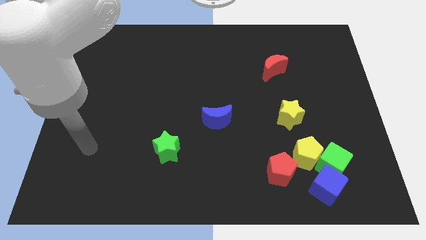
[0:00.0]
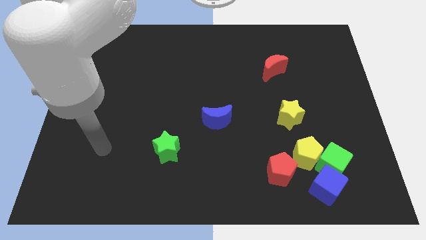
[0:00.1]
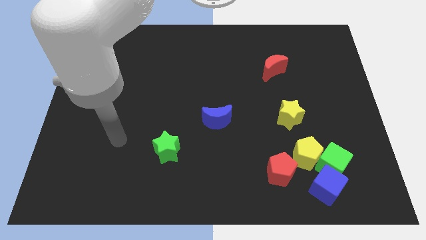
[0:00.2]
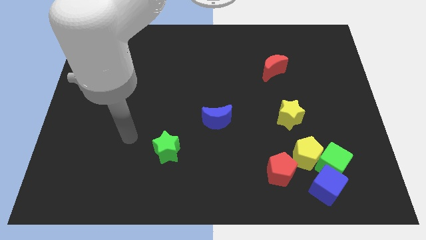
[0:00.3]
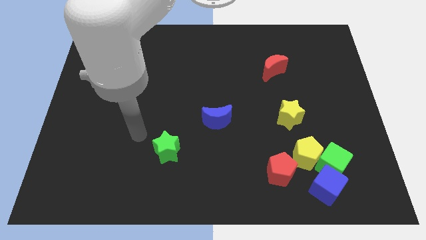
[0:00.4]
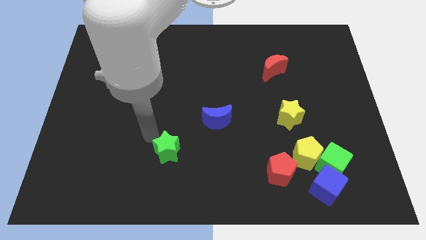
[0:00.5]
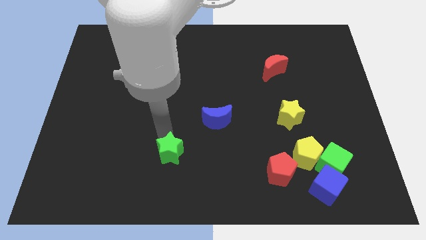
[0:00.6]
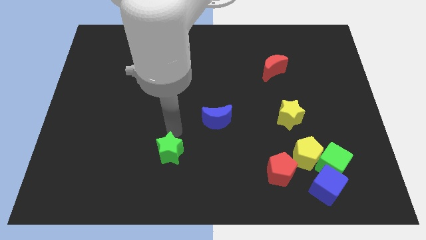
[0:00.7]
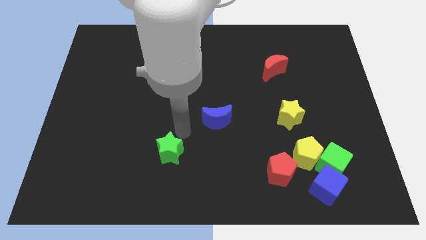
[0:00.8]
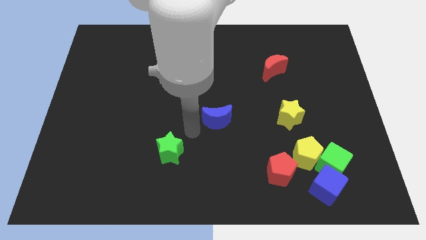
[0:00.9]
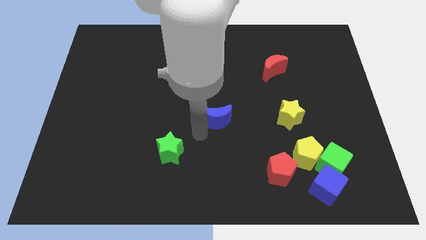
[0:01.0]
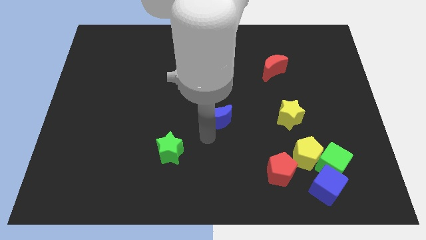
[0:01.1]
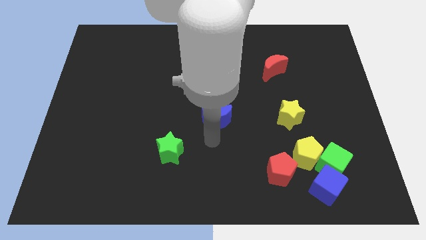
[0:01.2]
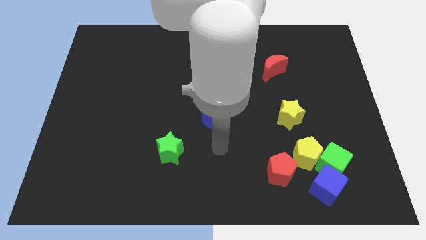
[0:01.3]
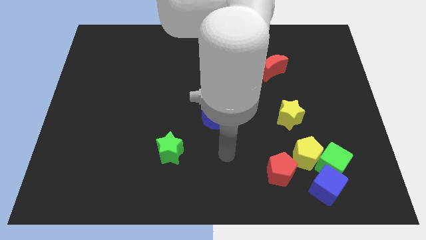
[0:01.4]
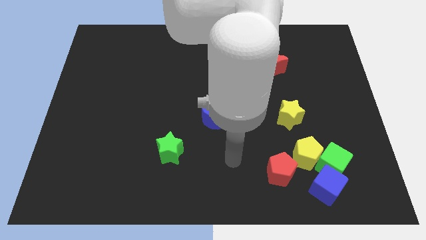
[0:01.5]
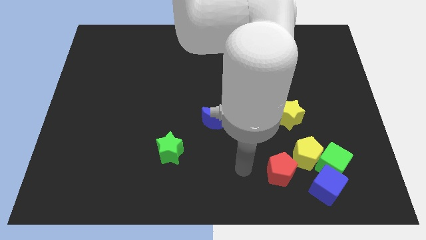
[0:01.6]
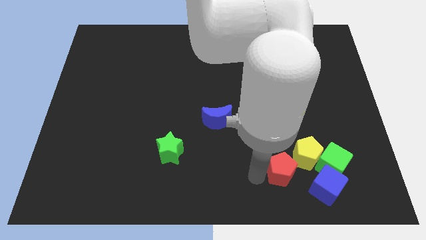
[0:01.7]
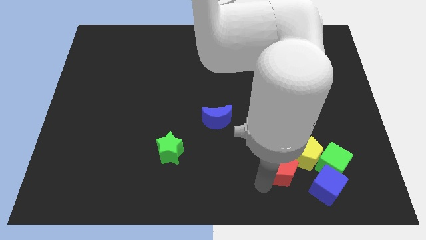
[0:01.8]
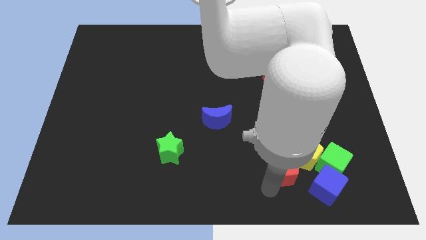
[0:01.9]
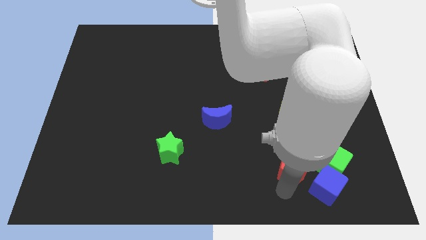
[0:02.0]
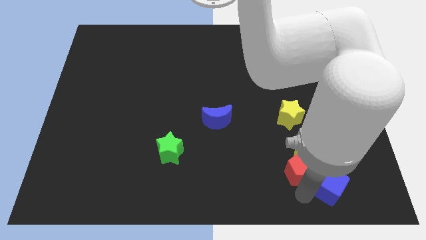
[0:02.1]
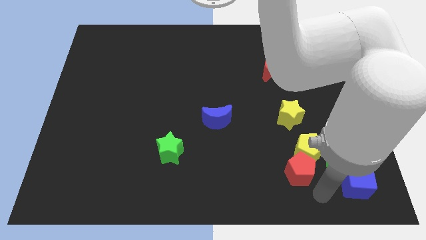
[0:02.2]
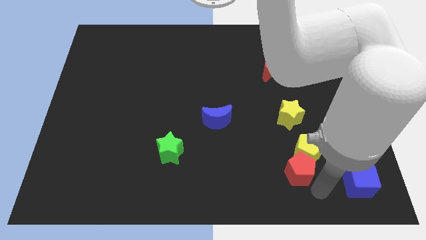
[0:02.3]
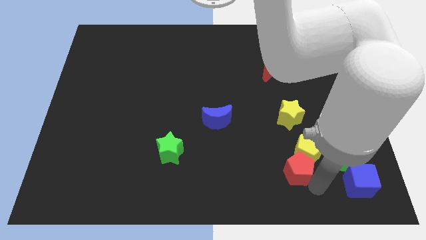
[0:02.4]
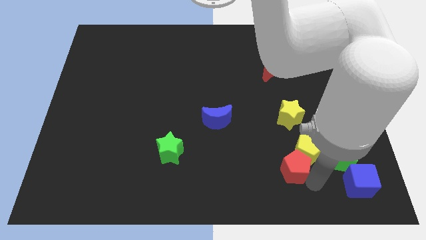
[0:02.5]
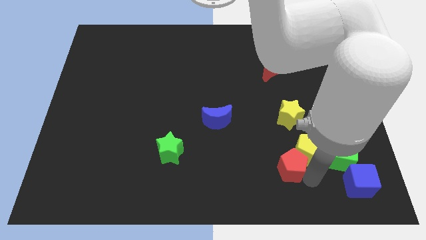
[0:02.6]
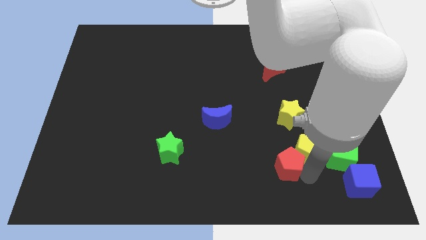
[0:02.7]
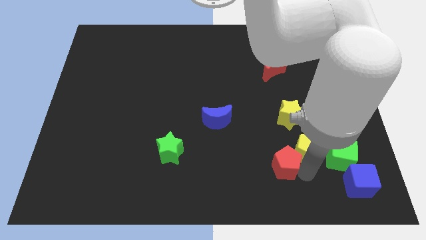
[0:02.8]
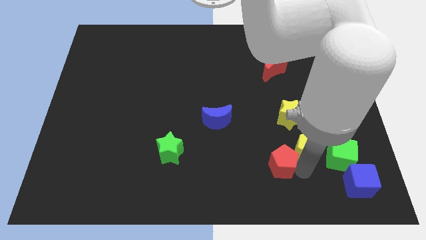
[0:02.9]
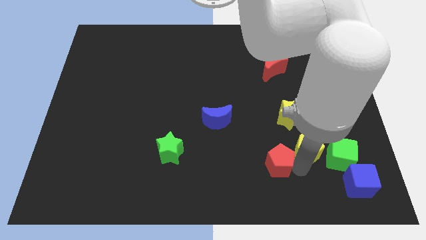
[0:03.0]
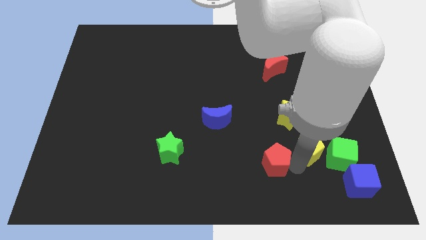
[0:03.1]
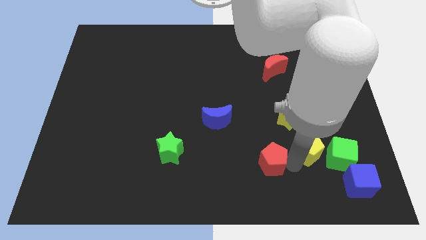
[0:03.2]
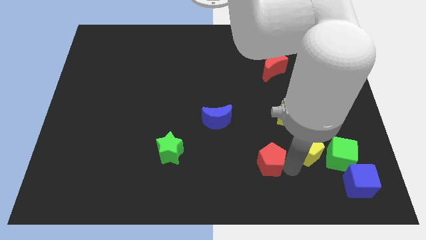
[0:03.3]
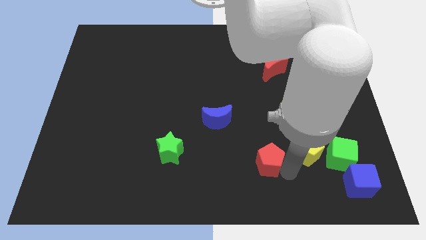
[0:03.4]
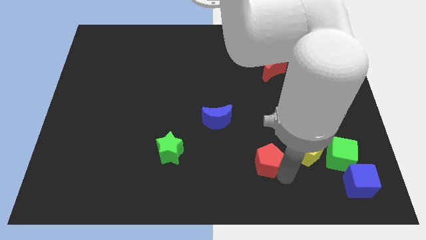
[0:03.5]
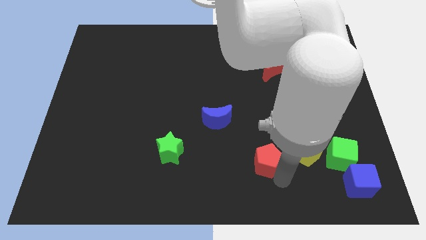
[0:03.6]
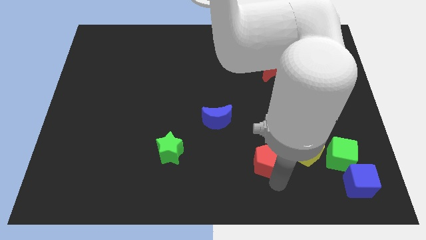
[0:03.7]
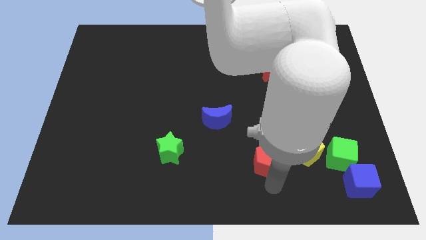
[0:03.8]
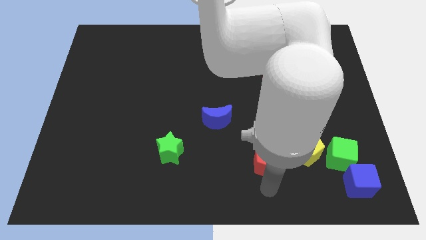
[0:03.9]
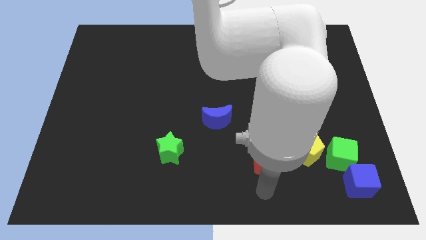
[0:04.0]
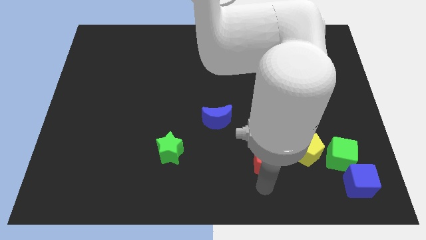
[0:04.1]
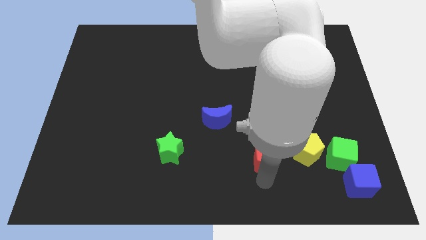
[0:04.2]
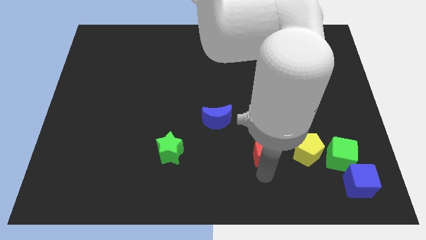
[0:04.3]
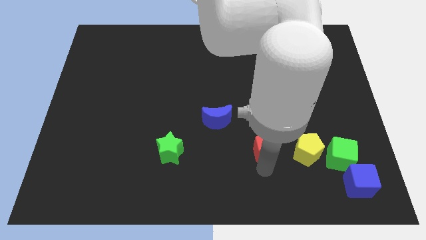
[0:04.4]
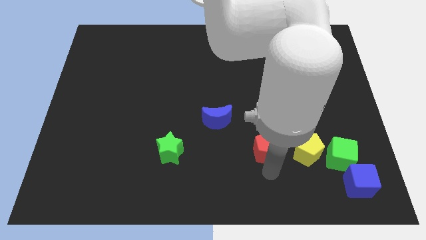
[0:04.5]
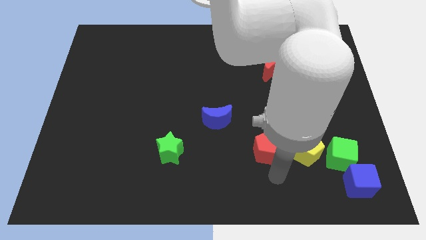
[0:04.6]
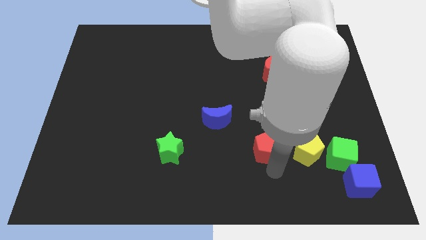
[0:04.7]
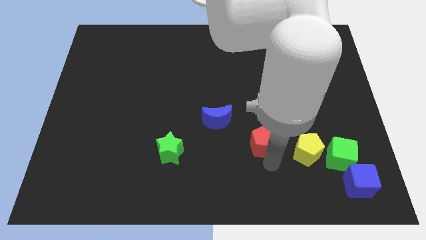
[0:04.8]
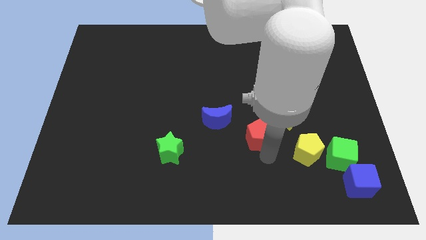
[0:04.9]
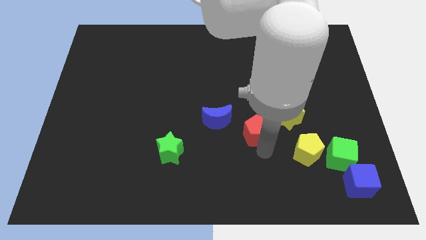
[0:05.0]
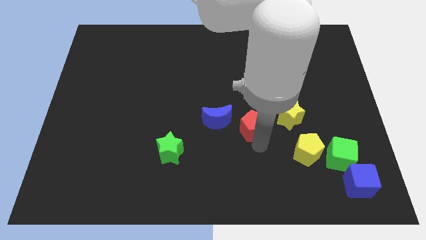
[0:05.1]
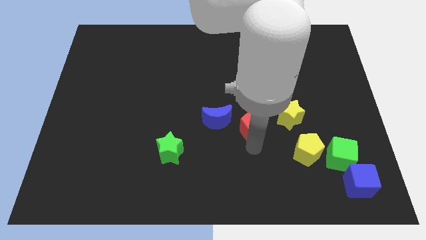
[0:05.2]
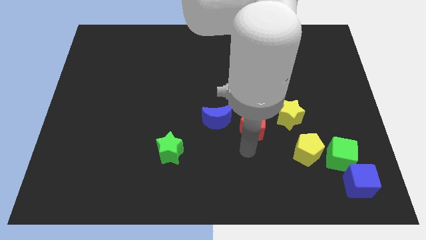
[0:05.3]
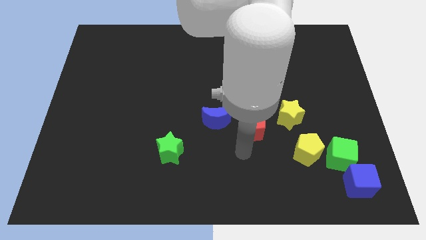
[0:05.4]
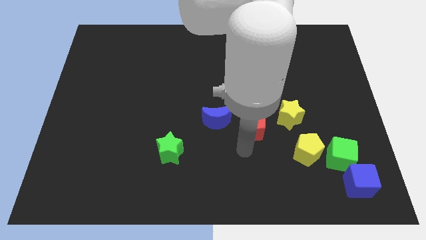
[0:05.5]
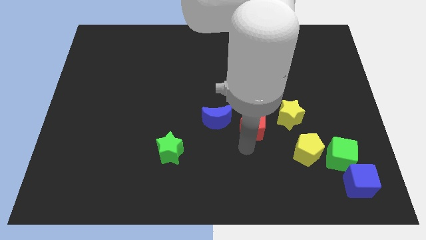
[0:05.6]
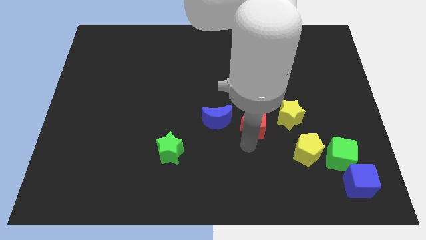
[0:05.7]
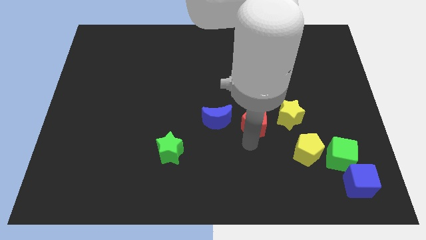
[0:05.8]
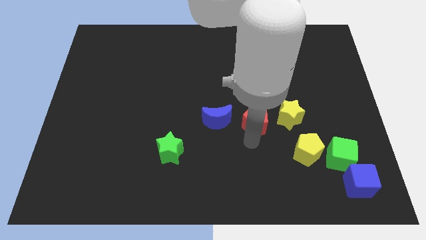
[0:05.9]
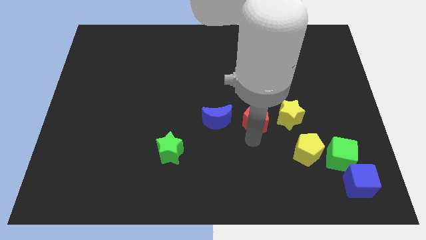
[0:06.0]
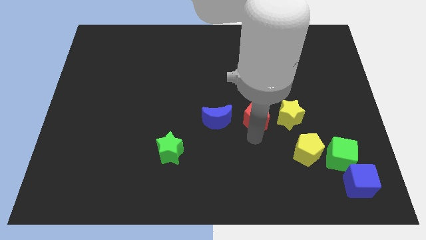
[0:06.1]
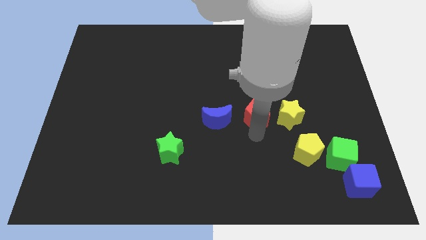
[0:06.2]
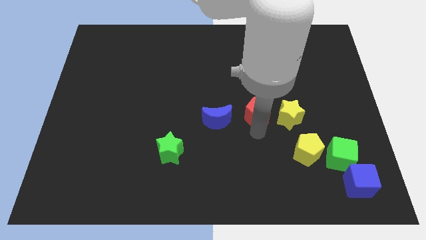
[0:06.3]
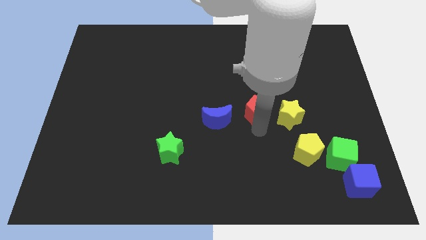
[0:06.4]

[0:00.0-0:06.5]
slide the red pentagon to the top left side of the yellow star

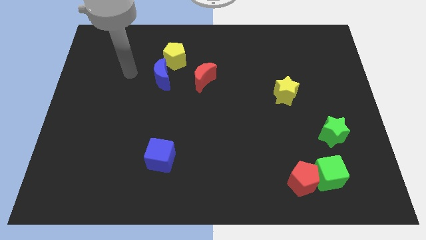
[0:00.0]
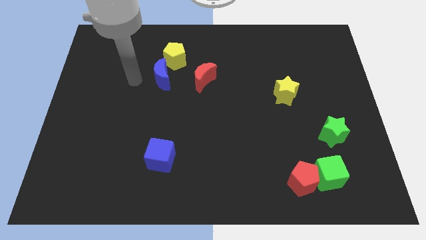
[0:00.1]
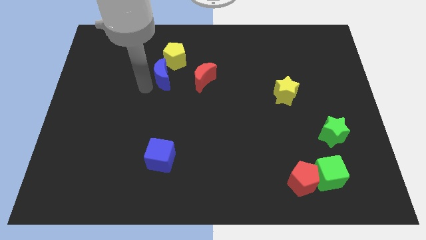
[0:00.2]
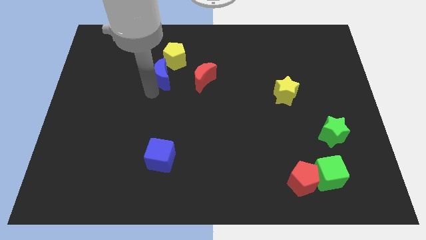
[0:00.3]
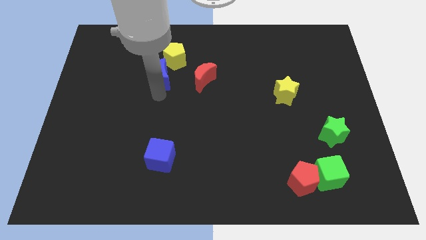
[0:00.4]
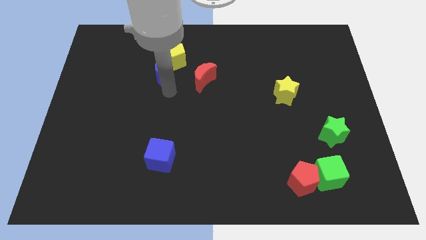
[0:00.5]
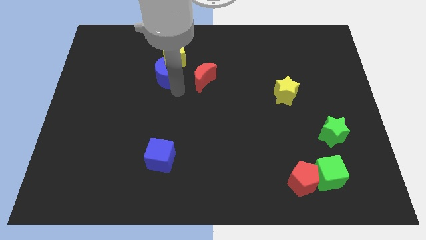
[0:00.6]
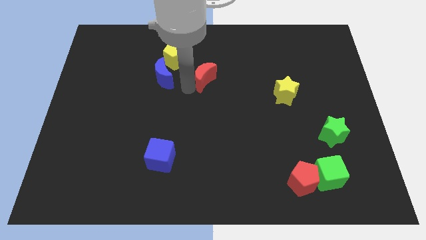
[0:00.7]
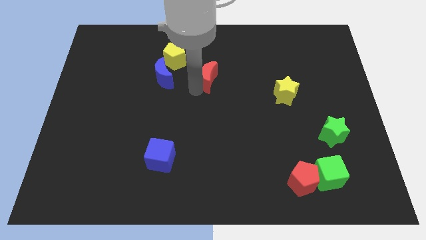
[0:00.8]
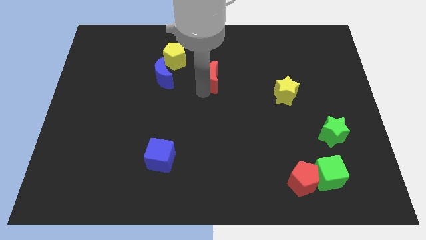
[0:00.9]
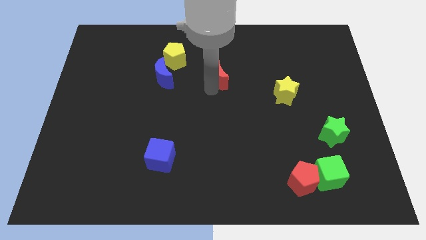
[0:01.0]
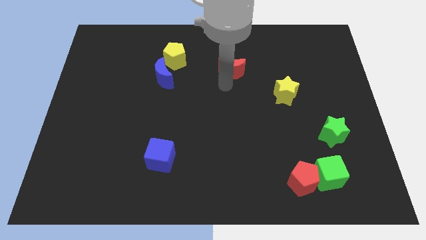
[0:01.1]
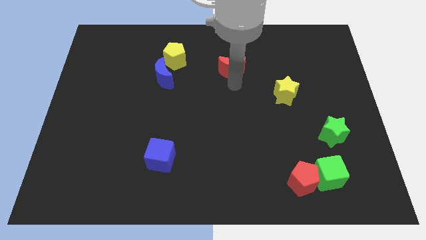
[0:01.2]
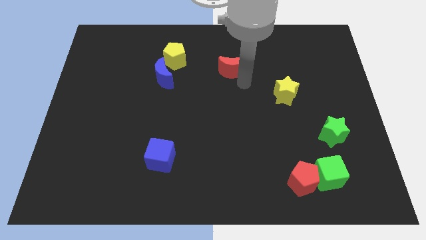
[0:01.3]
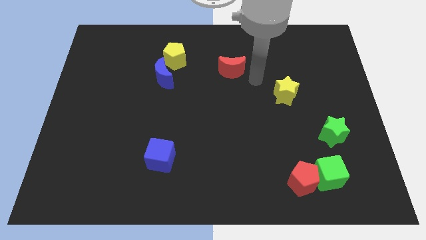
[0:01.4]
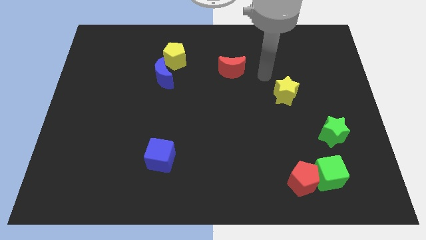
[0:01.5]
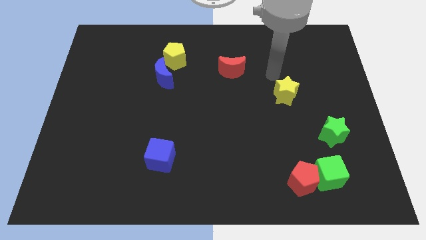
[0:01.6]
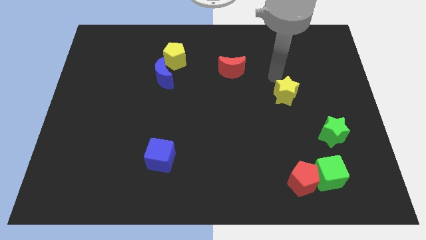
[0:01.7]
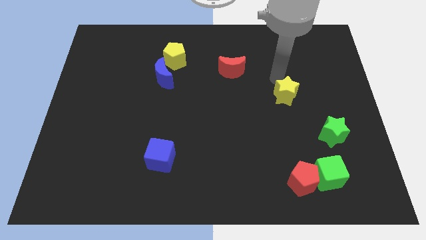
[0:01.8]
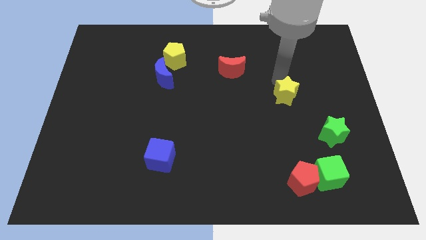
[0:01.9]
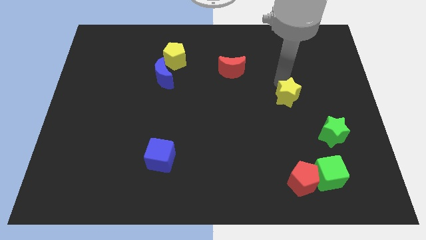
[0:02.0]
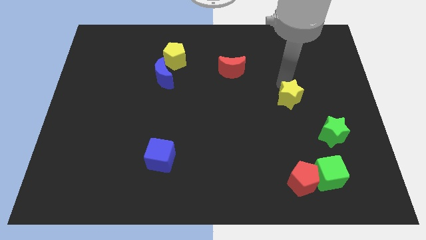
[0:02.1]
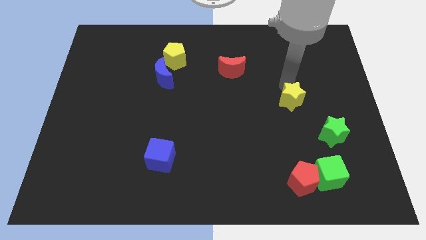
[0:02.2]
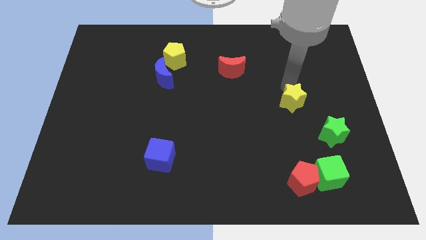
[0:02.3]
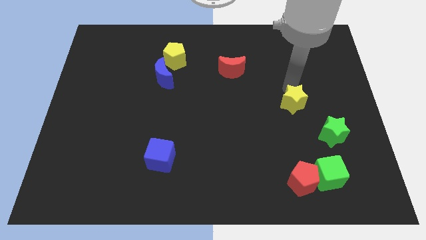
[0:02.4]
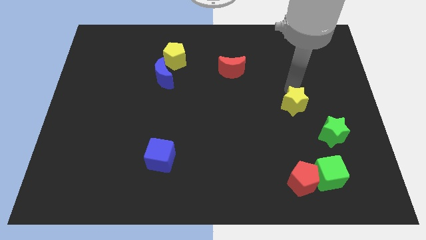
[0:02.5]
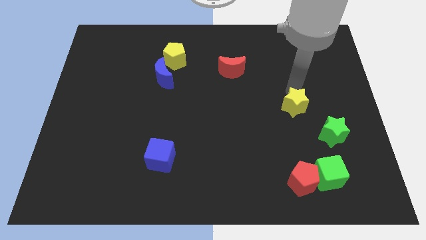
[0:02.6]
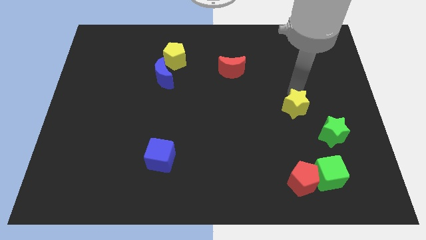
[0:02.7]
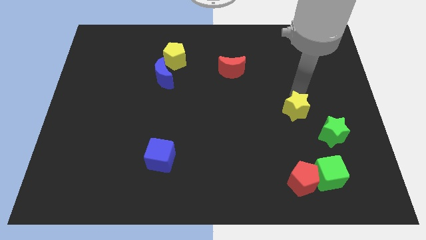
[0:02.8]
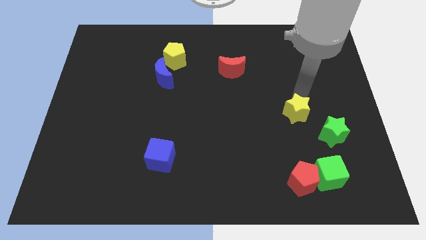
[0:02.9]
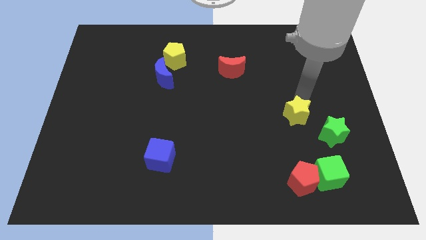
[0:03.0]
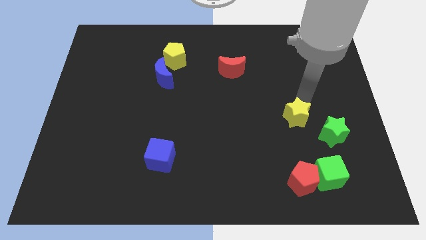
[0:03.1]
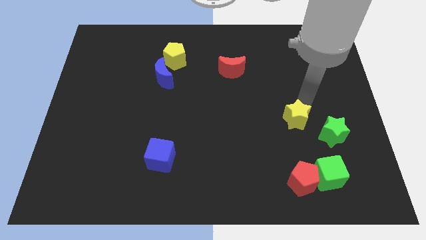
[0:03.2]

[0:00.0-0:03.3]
slide the yellow star to the top of the red pentagon
